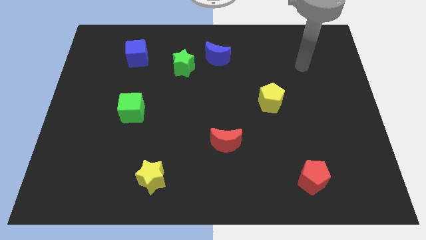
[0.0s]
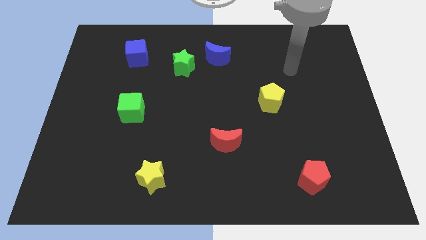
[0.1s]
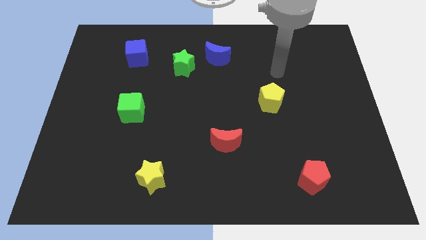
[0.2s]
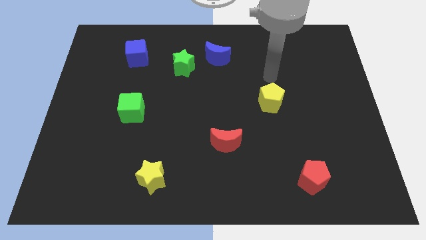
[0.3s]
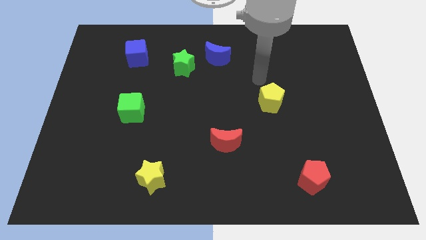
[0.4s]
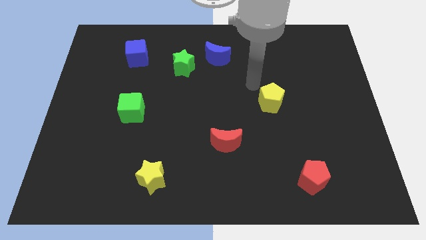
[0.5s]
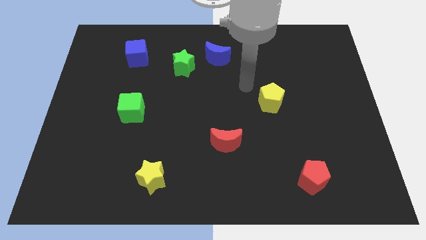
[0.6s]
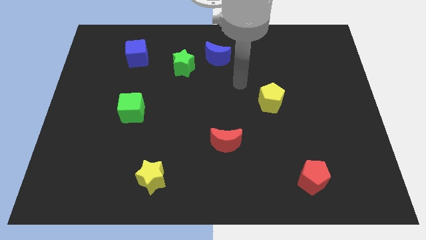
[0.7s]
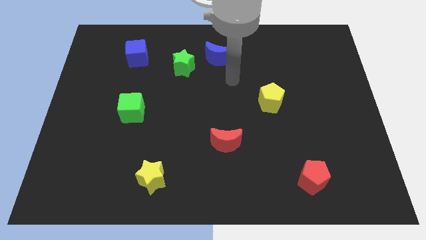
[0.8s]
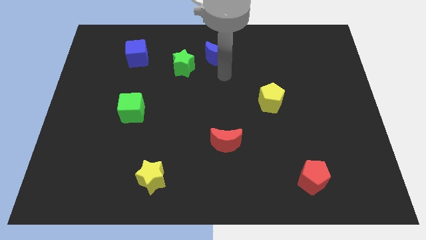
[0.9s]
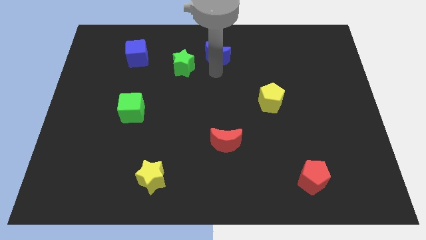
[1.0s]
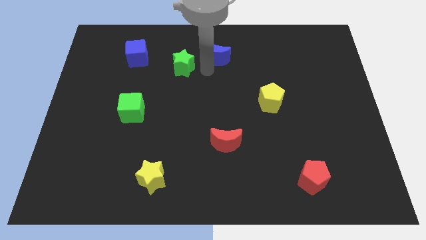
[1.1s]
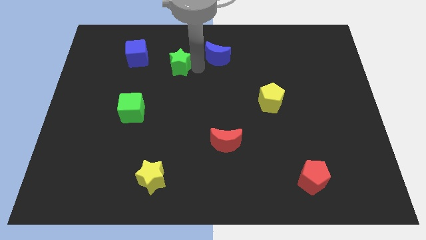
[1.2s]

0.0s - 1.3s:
separate the blue moon from the green star

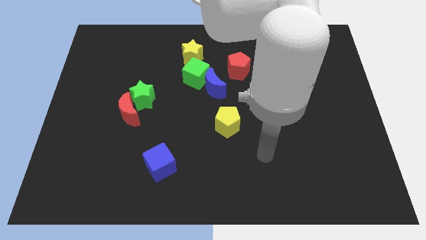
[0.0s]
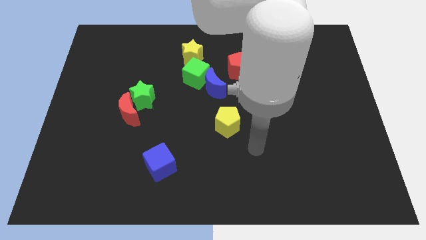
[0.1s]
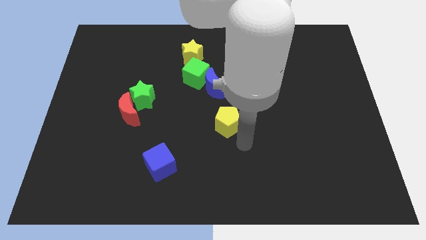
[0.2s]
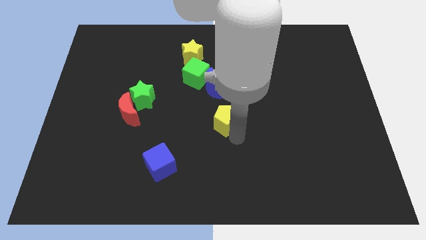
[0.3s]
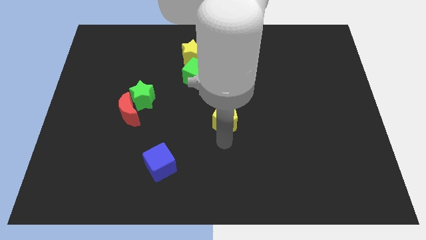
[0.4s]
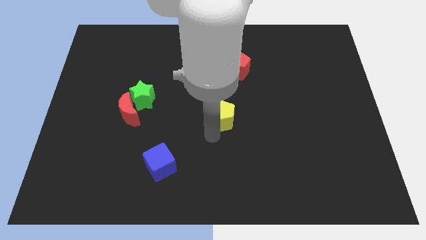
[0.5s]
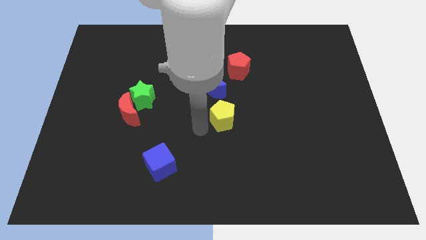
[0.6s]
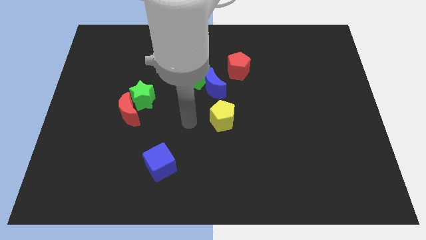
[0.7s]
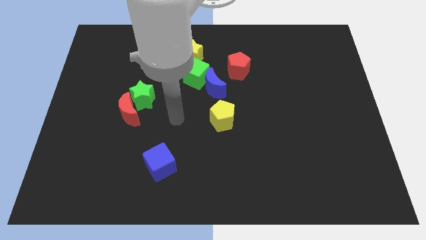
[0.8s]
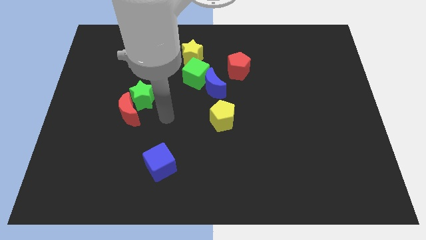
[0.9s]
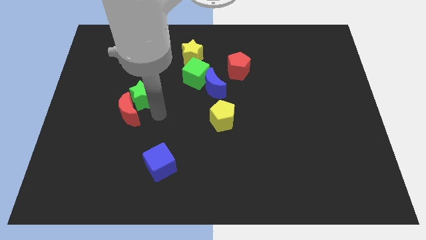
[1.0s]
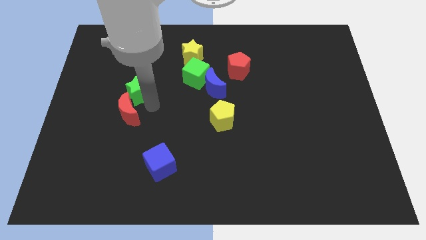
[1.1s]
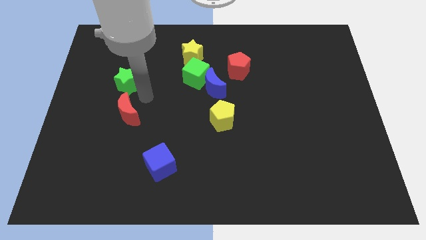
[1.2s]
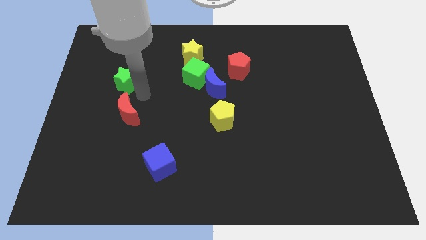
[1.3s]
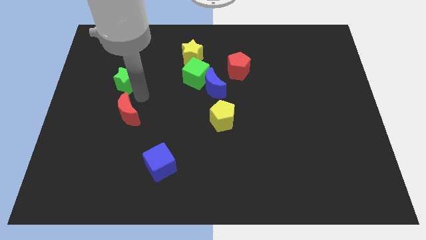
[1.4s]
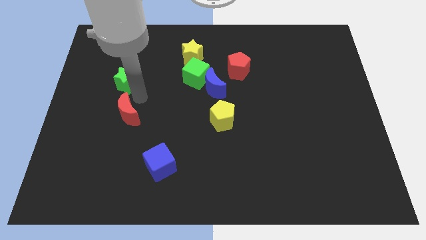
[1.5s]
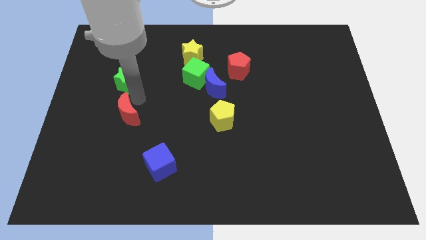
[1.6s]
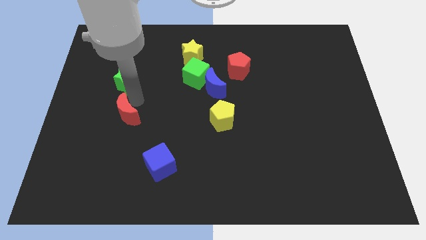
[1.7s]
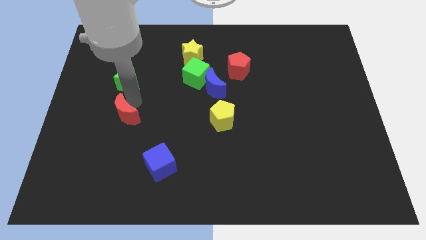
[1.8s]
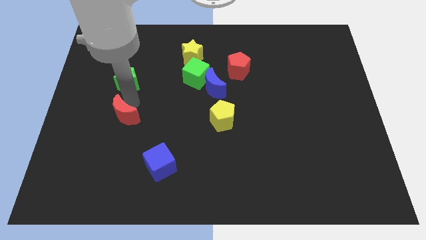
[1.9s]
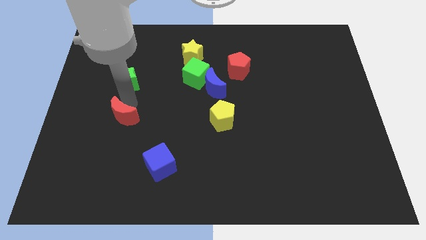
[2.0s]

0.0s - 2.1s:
move the red moon away from the green star

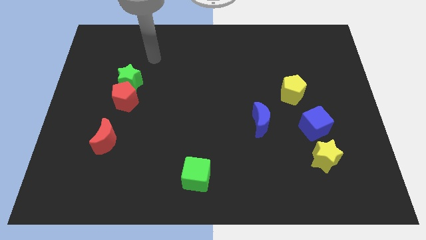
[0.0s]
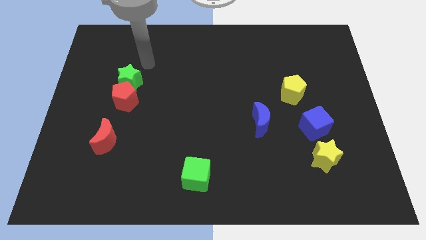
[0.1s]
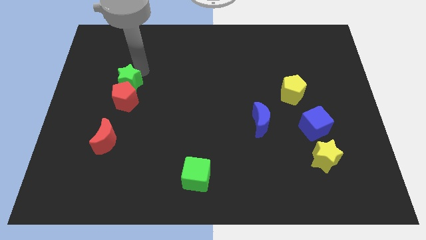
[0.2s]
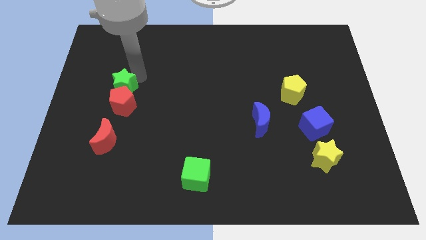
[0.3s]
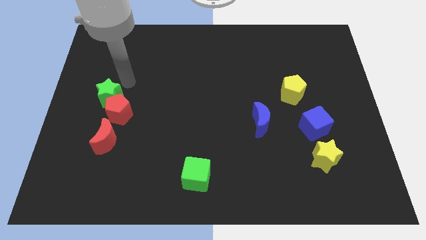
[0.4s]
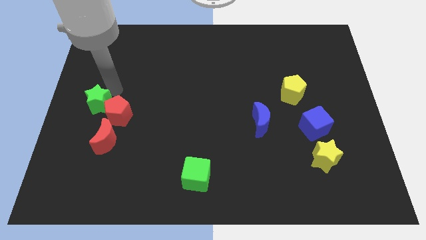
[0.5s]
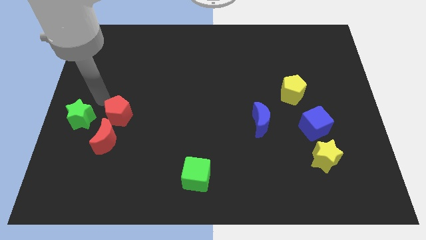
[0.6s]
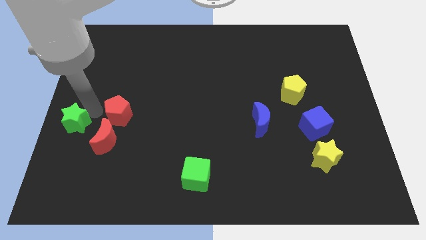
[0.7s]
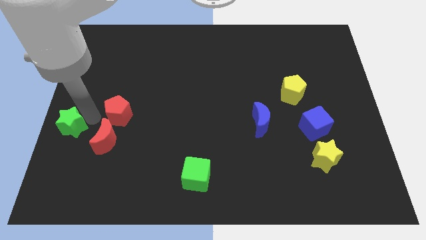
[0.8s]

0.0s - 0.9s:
separate the red pentagon from the green star

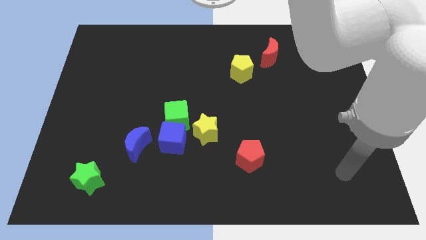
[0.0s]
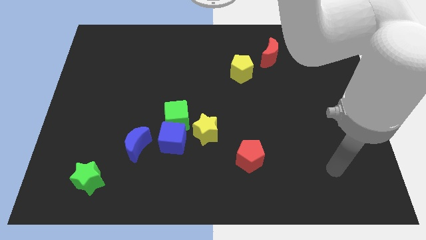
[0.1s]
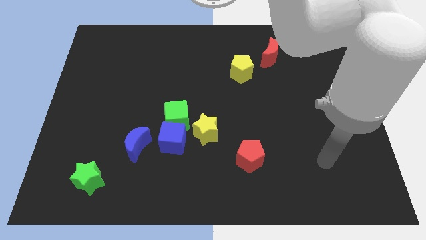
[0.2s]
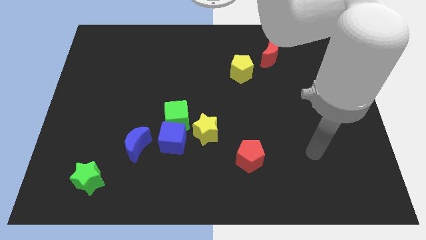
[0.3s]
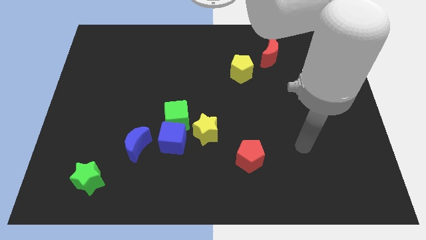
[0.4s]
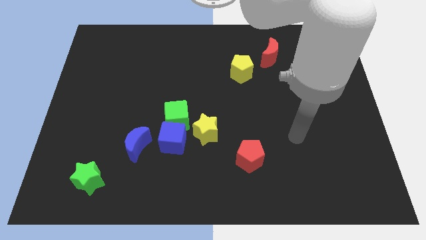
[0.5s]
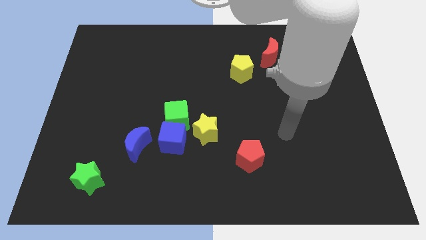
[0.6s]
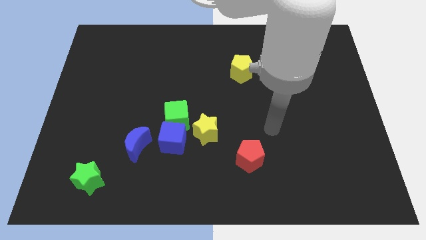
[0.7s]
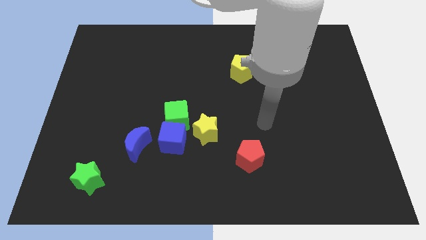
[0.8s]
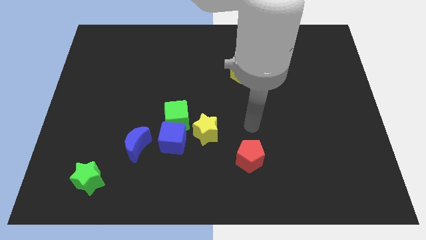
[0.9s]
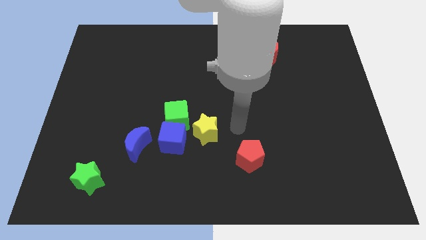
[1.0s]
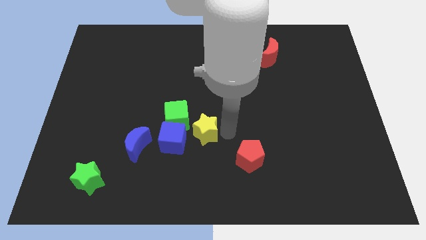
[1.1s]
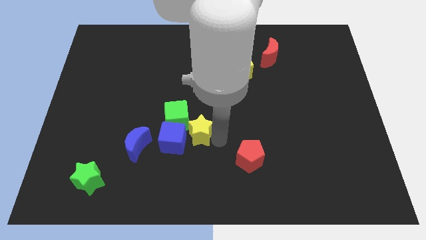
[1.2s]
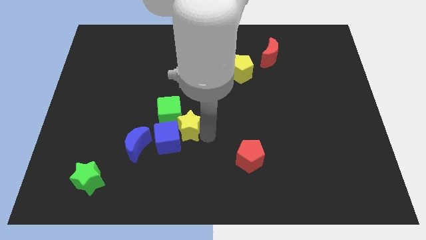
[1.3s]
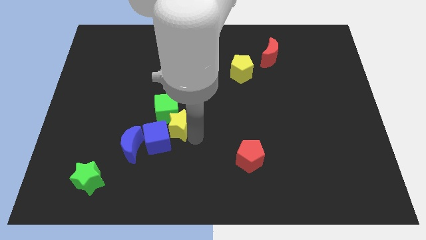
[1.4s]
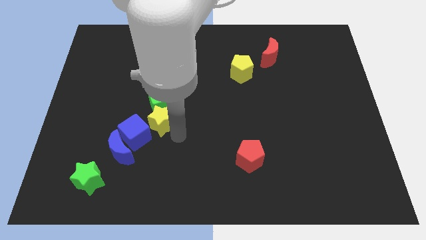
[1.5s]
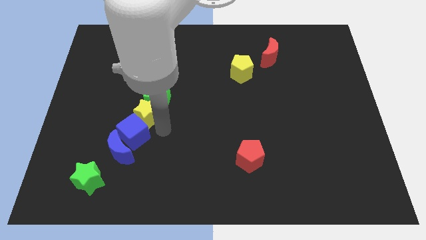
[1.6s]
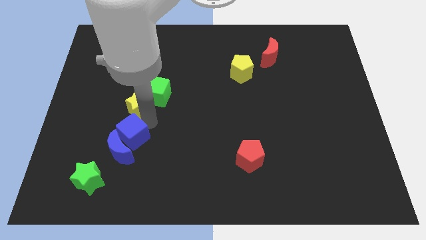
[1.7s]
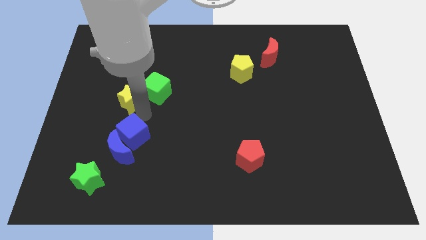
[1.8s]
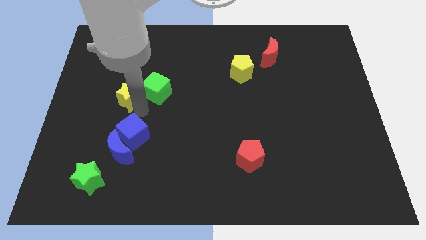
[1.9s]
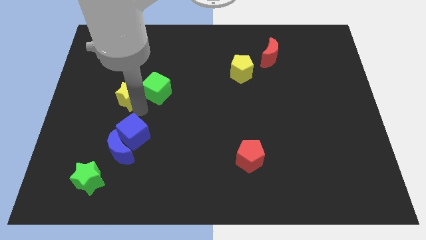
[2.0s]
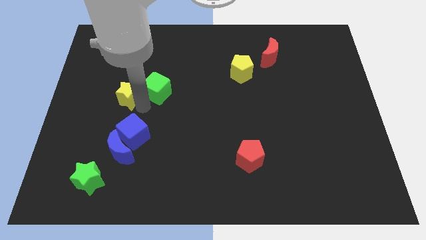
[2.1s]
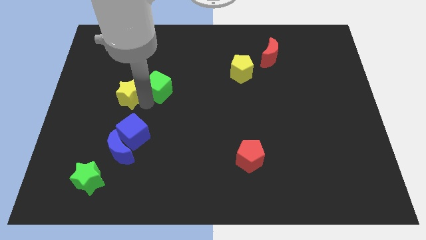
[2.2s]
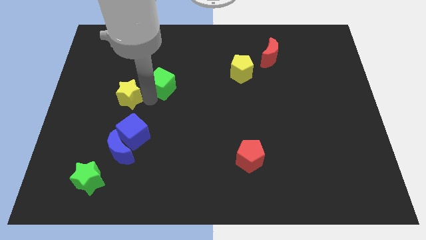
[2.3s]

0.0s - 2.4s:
separate the green cube from the blue cube and yellow star

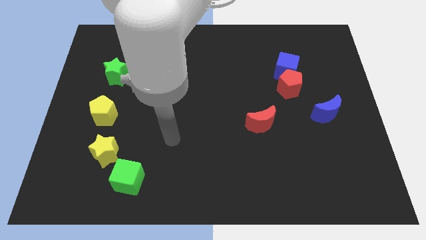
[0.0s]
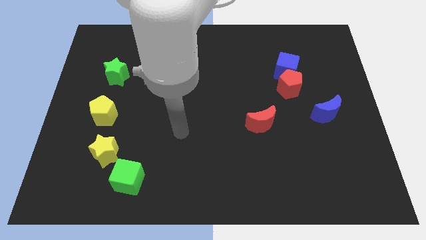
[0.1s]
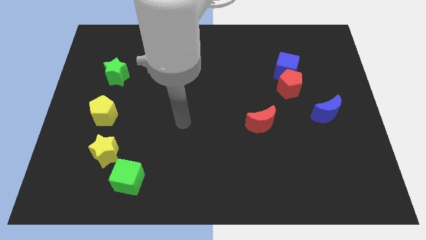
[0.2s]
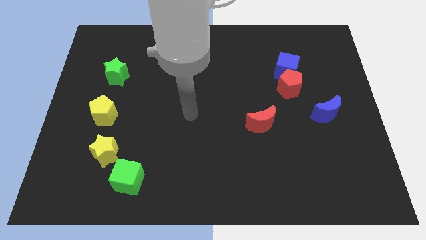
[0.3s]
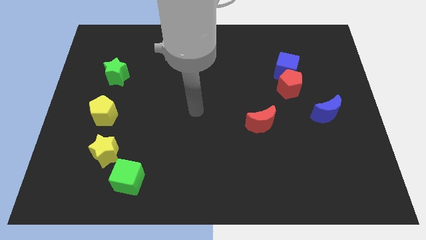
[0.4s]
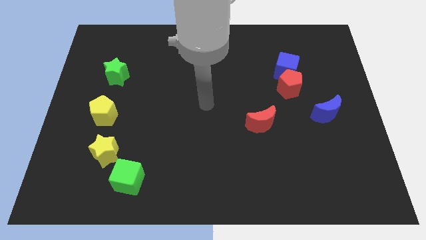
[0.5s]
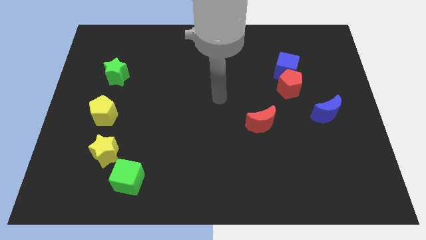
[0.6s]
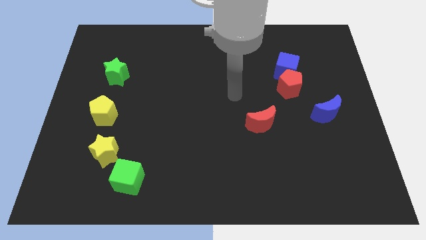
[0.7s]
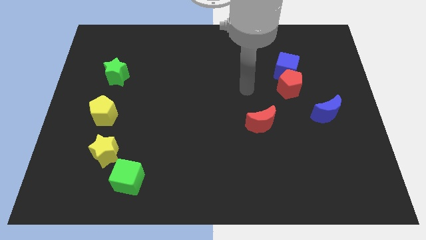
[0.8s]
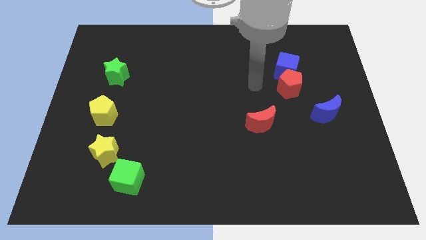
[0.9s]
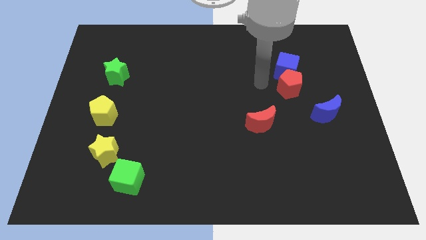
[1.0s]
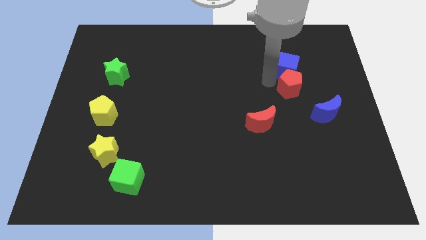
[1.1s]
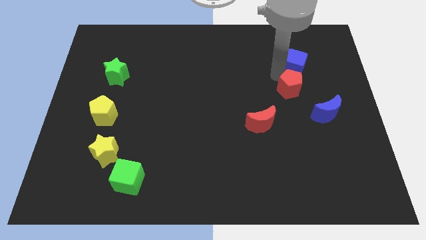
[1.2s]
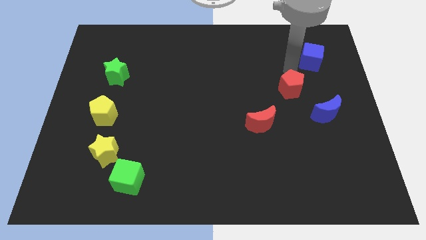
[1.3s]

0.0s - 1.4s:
separate the red pentagon from the blue cube

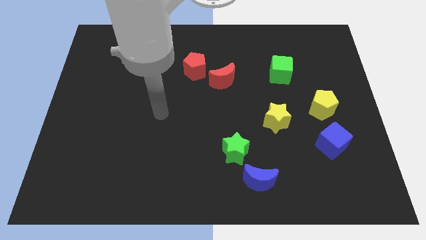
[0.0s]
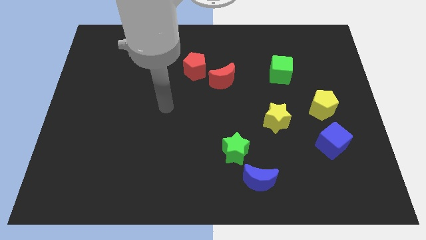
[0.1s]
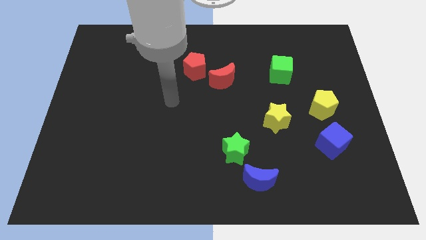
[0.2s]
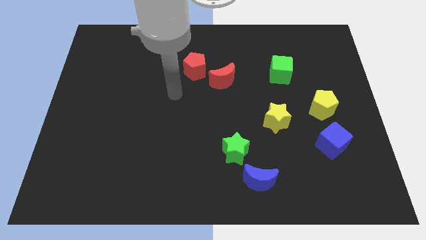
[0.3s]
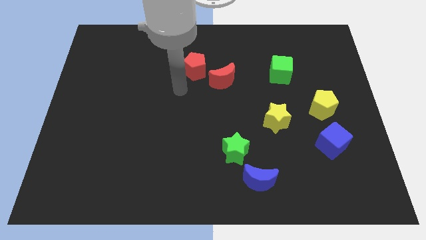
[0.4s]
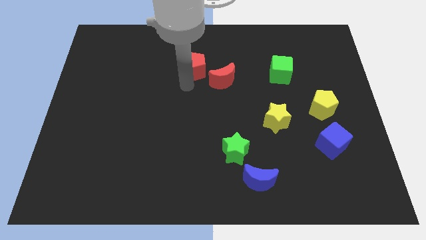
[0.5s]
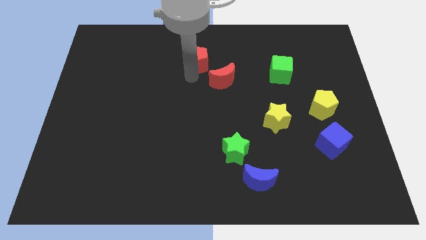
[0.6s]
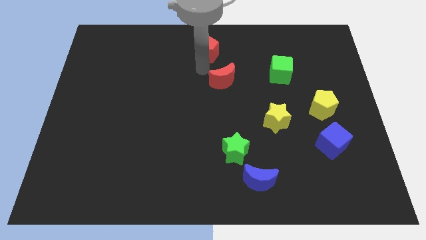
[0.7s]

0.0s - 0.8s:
move the red moon away from the red pentagon

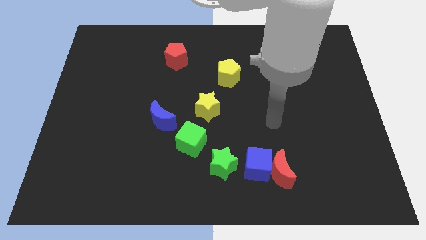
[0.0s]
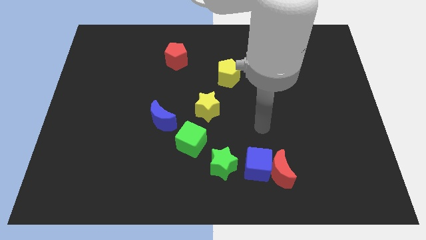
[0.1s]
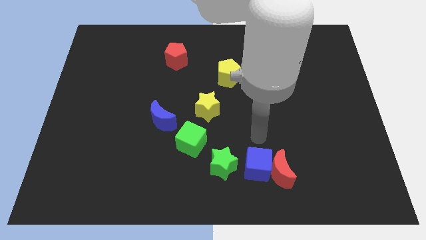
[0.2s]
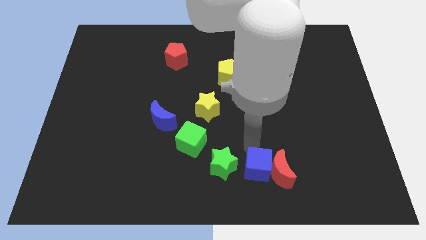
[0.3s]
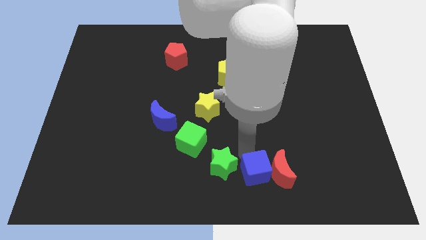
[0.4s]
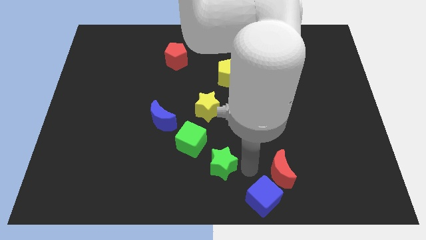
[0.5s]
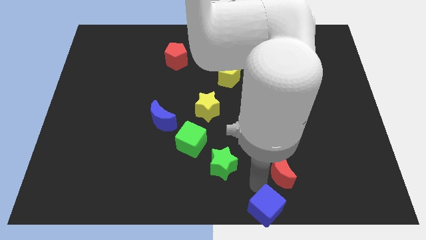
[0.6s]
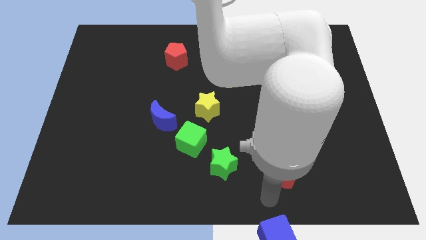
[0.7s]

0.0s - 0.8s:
separate the red moon from the blue cube
